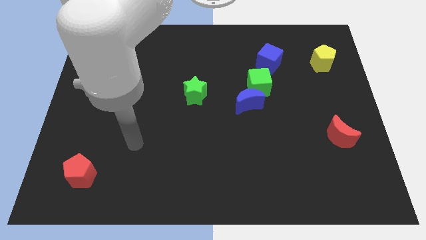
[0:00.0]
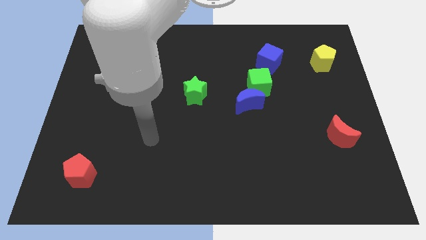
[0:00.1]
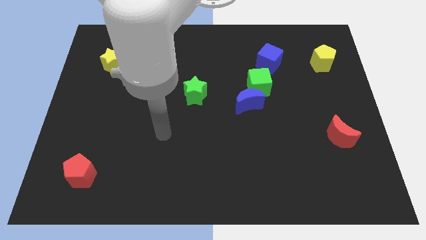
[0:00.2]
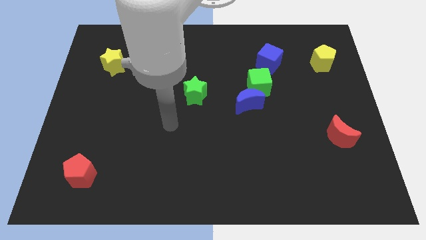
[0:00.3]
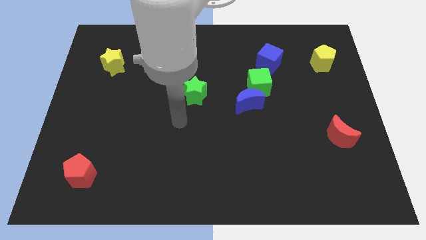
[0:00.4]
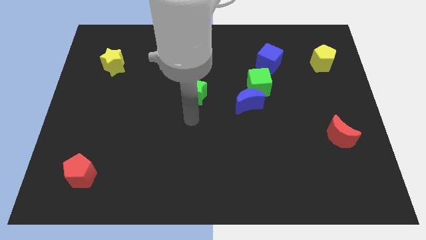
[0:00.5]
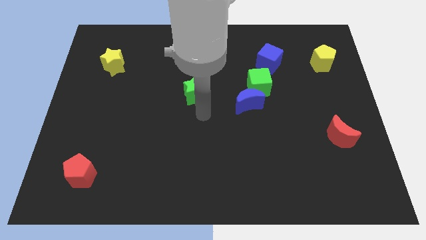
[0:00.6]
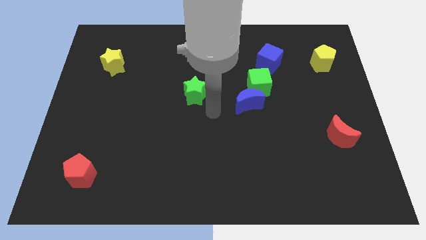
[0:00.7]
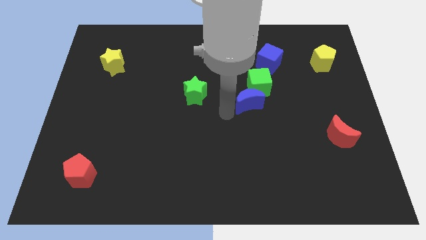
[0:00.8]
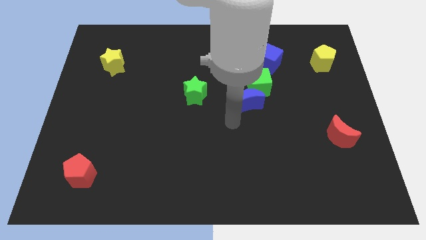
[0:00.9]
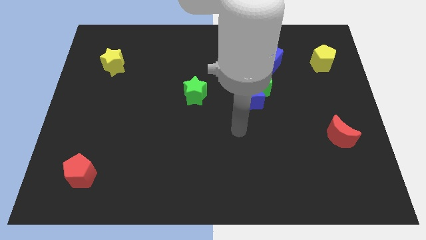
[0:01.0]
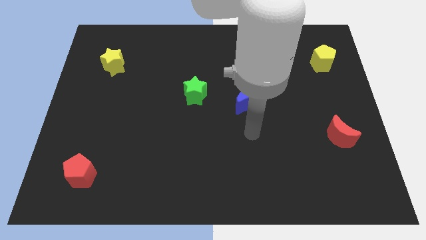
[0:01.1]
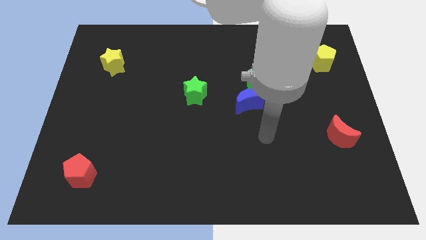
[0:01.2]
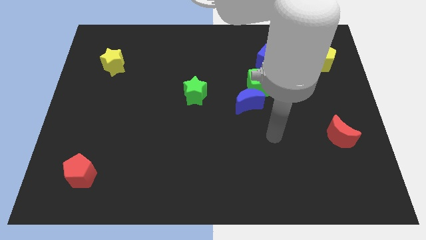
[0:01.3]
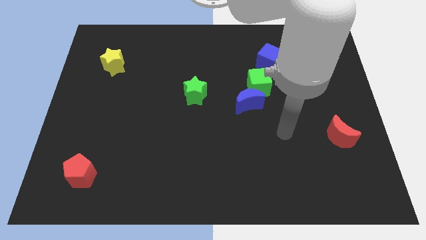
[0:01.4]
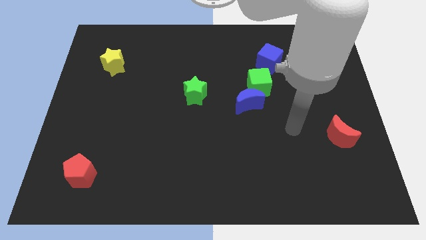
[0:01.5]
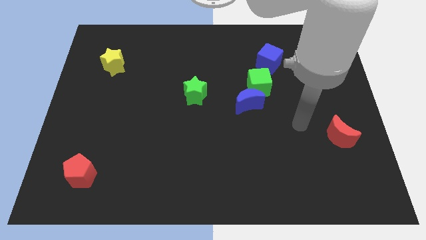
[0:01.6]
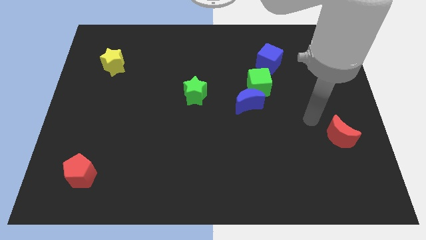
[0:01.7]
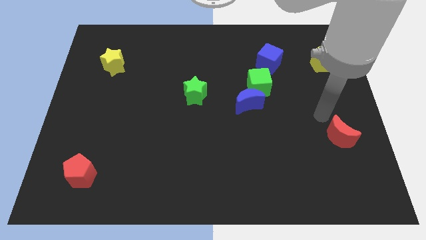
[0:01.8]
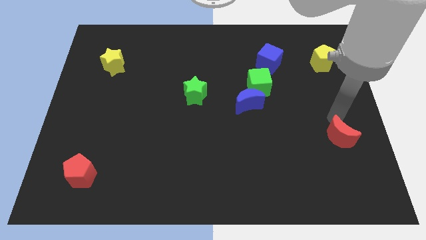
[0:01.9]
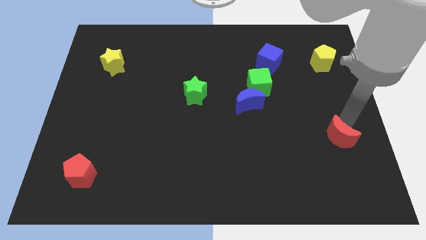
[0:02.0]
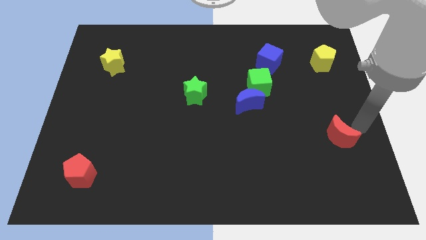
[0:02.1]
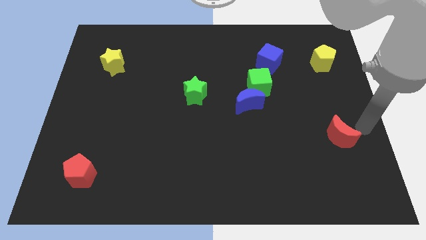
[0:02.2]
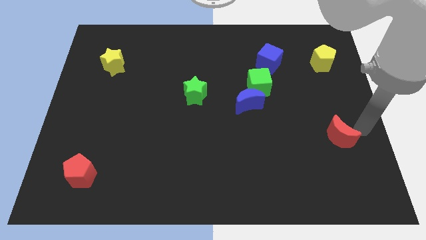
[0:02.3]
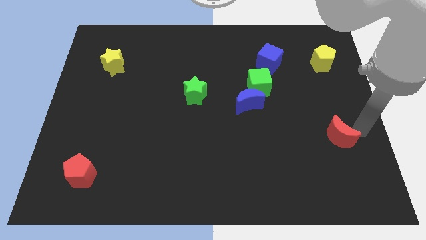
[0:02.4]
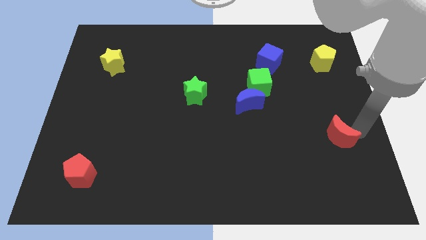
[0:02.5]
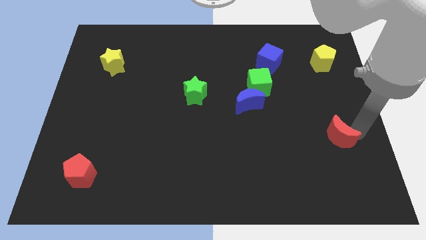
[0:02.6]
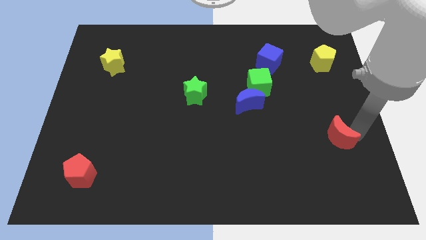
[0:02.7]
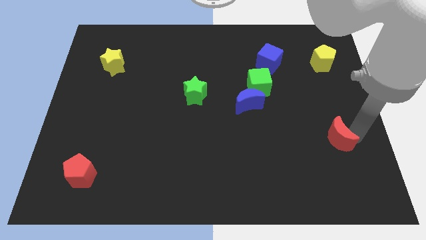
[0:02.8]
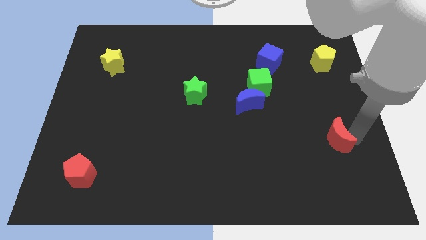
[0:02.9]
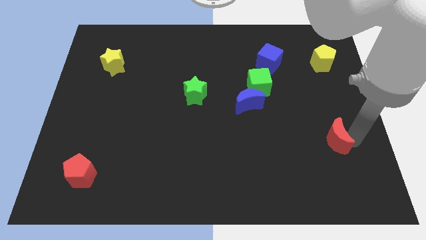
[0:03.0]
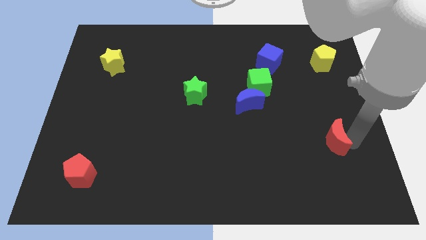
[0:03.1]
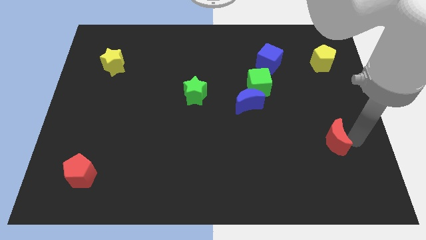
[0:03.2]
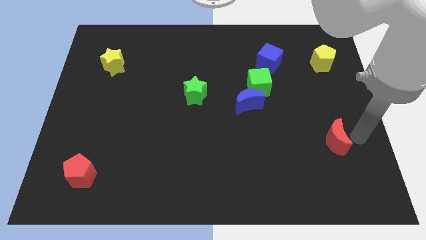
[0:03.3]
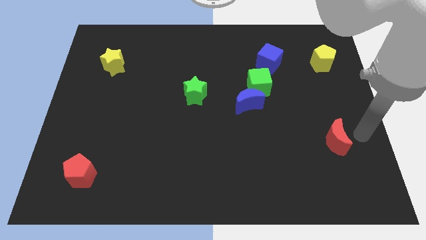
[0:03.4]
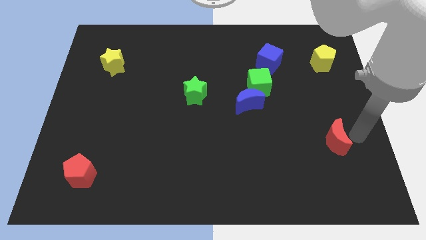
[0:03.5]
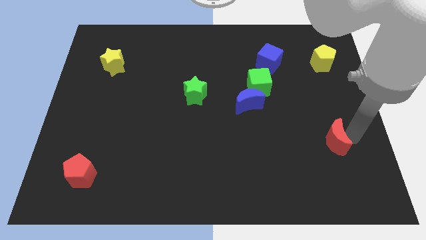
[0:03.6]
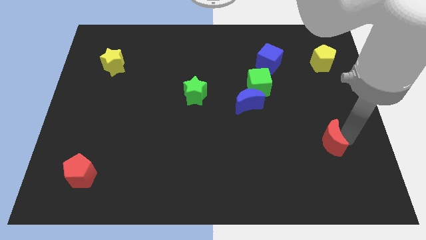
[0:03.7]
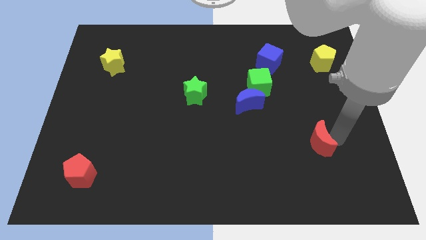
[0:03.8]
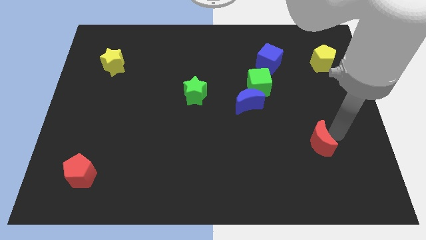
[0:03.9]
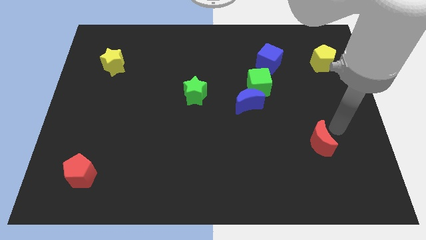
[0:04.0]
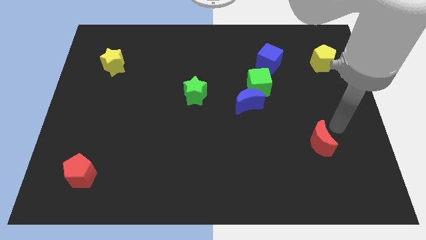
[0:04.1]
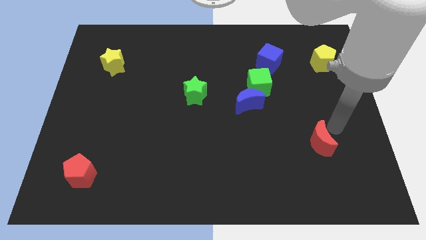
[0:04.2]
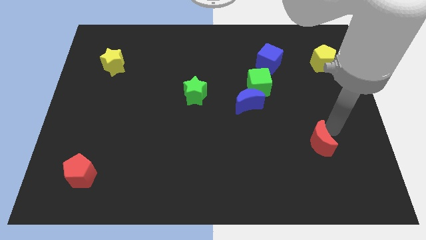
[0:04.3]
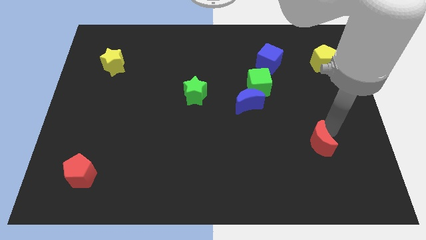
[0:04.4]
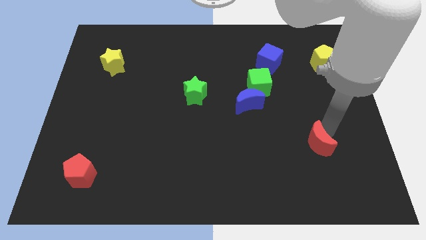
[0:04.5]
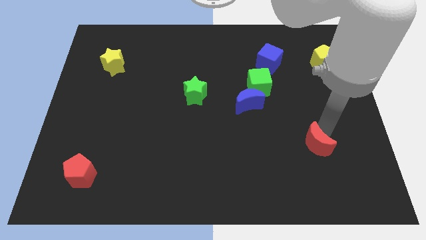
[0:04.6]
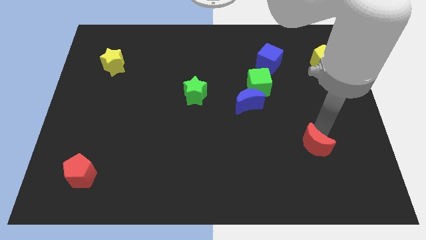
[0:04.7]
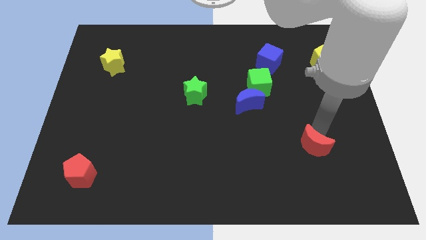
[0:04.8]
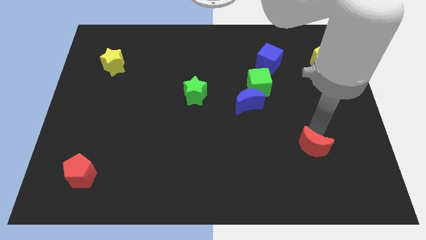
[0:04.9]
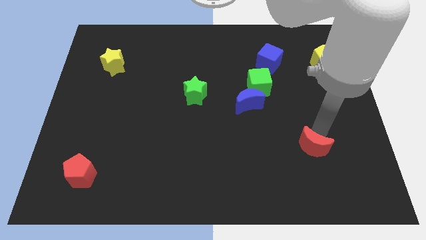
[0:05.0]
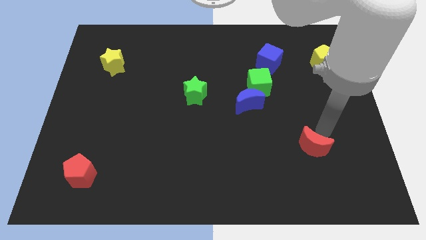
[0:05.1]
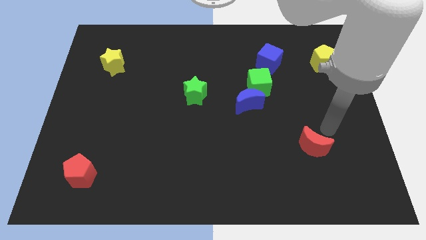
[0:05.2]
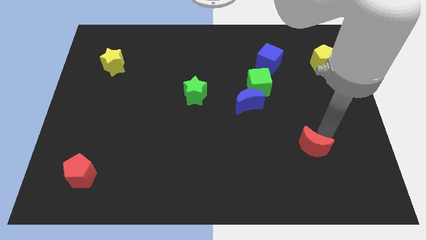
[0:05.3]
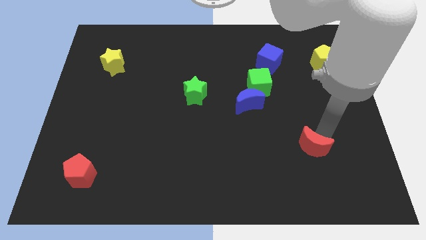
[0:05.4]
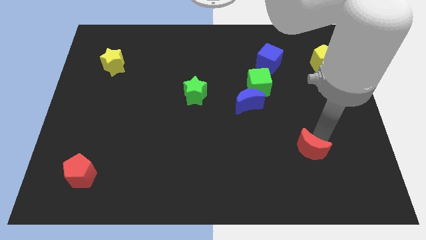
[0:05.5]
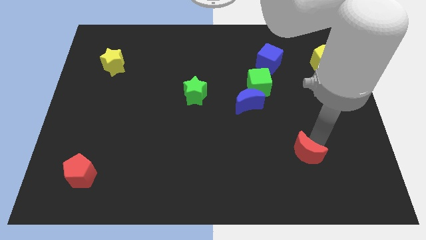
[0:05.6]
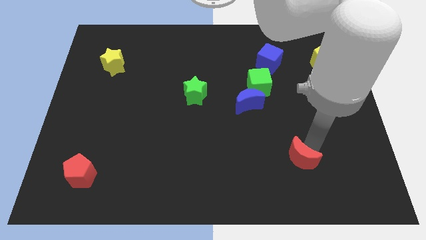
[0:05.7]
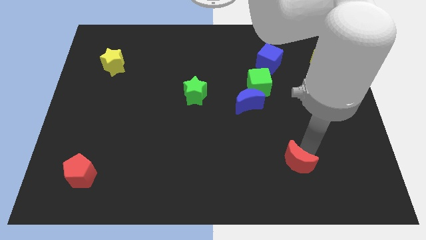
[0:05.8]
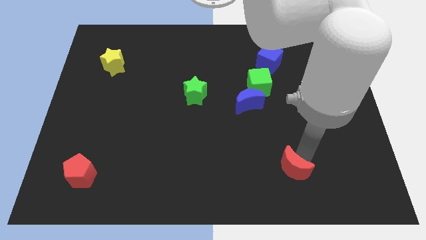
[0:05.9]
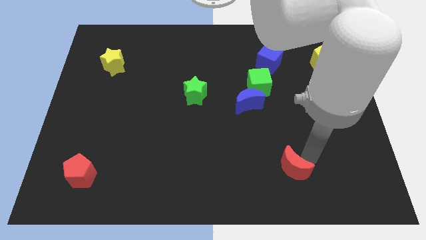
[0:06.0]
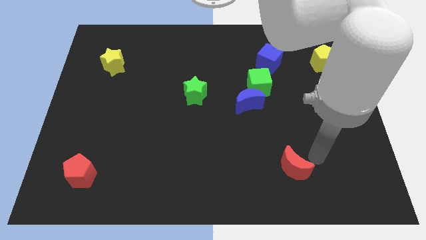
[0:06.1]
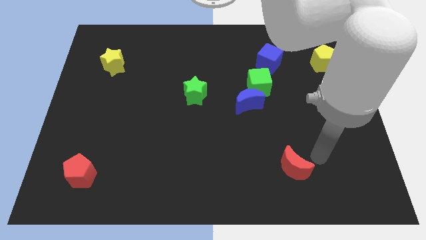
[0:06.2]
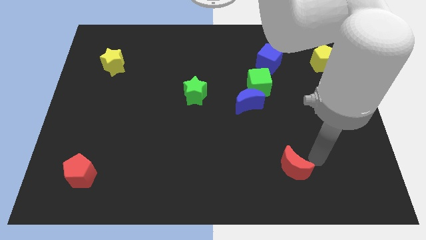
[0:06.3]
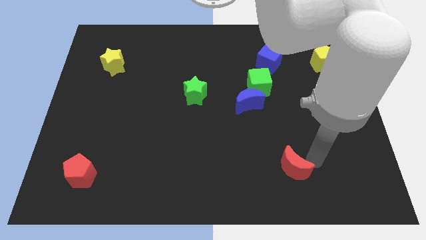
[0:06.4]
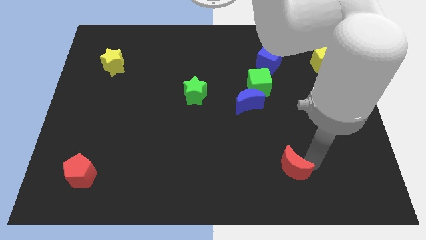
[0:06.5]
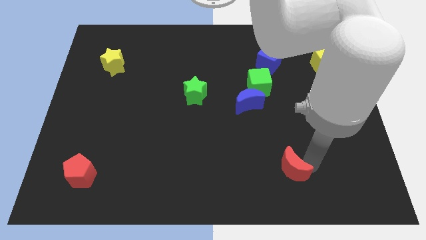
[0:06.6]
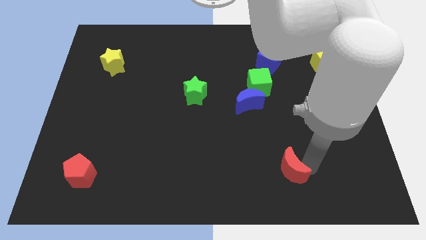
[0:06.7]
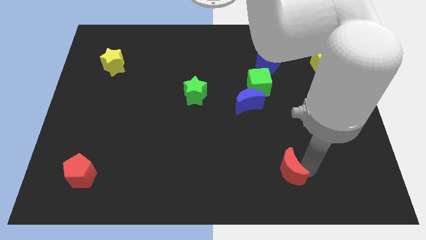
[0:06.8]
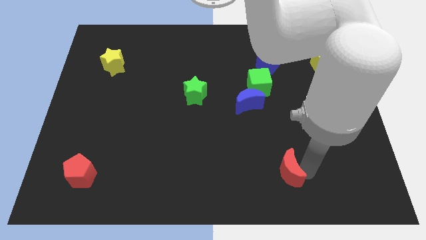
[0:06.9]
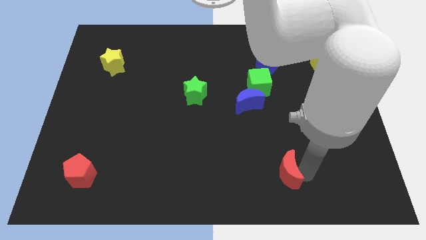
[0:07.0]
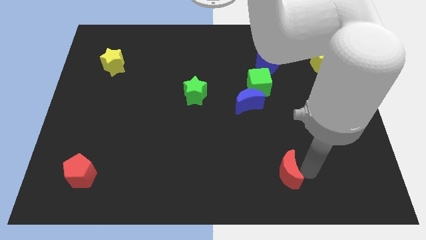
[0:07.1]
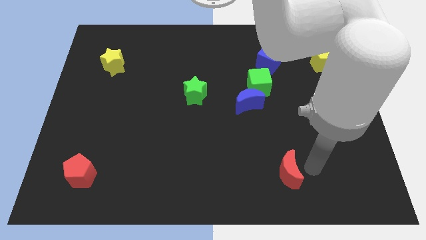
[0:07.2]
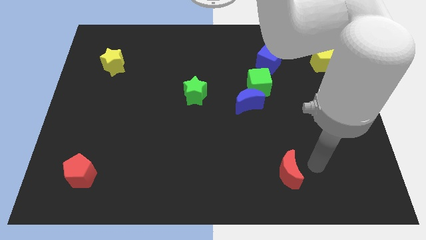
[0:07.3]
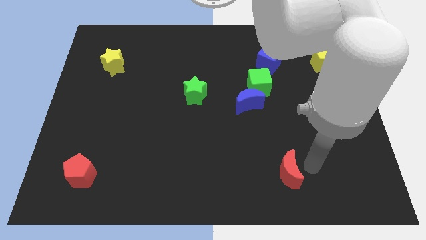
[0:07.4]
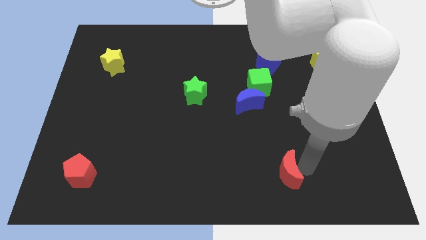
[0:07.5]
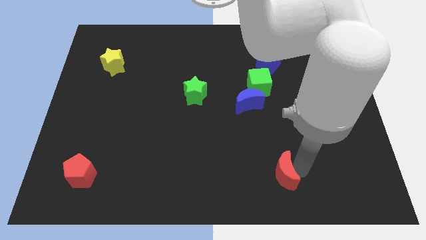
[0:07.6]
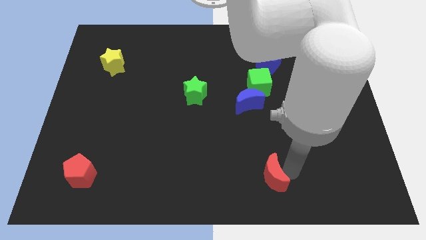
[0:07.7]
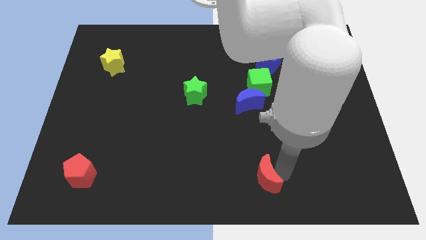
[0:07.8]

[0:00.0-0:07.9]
slide the red moon to the bottom side
